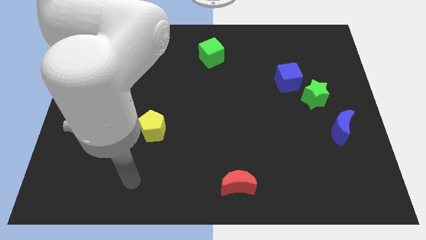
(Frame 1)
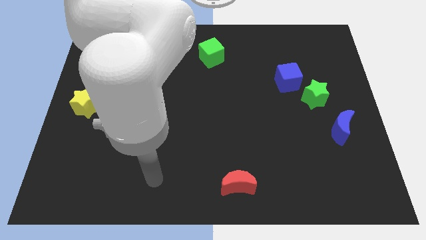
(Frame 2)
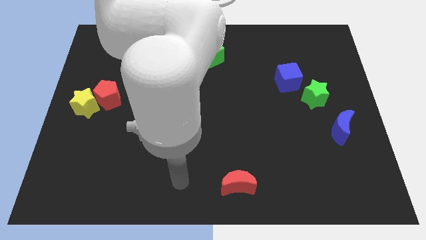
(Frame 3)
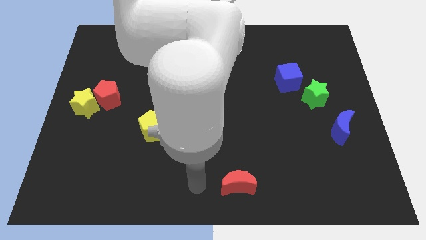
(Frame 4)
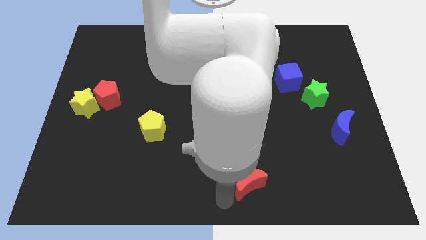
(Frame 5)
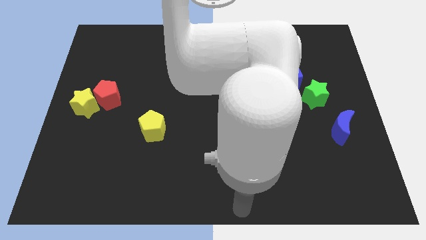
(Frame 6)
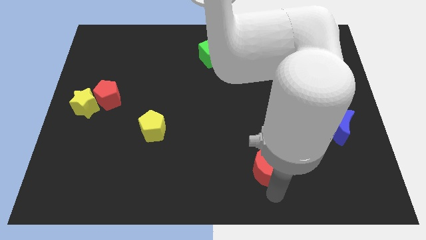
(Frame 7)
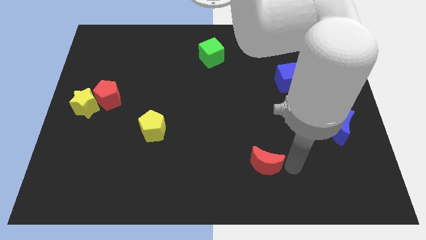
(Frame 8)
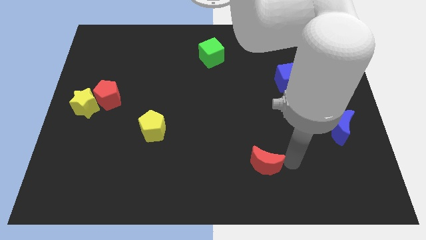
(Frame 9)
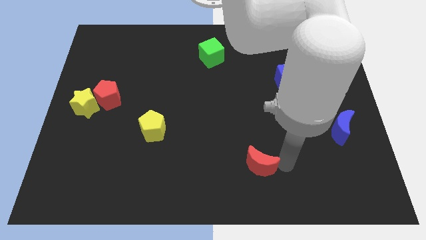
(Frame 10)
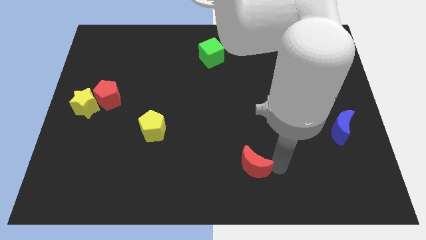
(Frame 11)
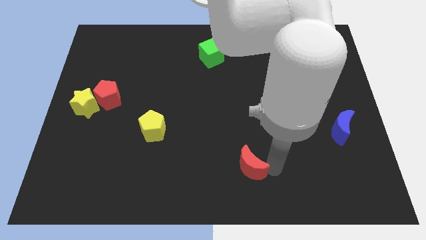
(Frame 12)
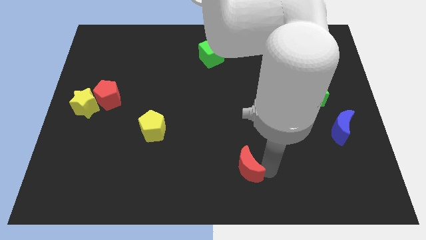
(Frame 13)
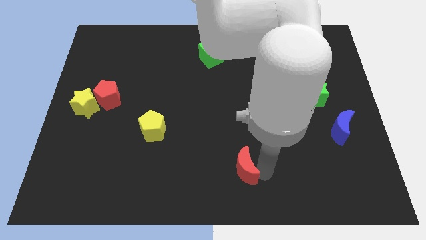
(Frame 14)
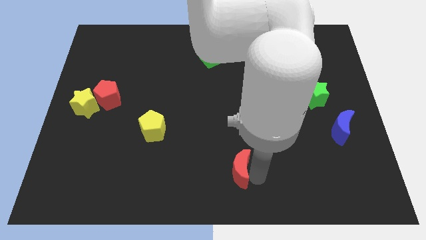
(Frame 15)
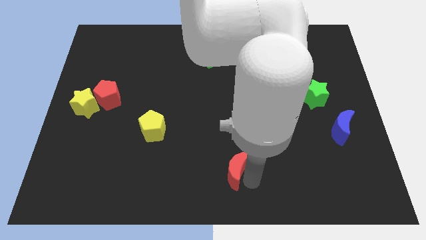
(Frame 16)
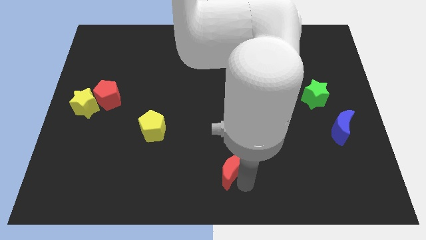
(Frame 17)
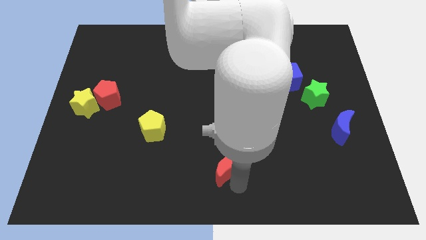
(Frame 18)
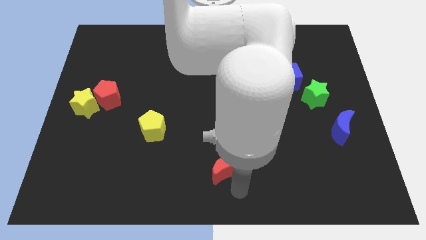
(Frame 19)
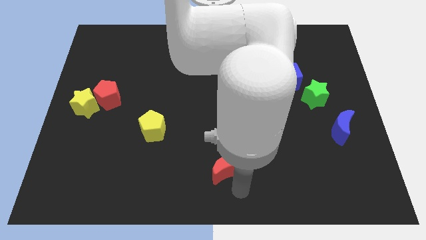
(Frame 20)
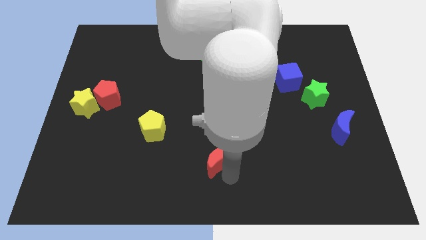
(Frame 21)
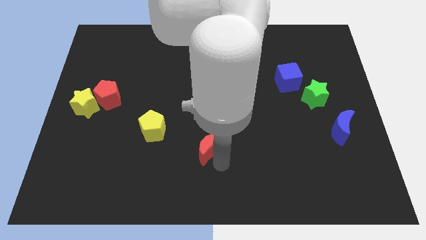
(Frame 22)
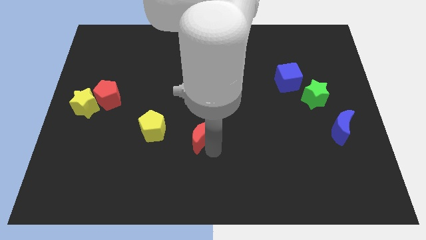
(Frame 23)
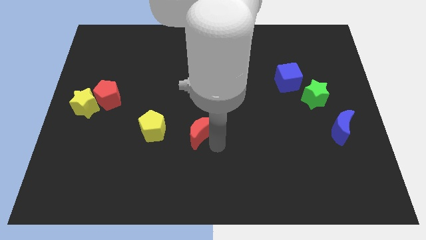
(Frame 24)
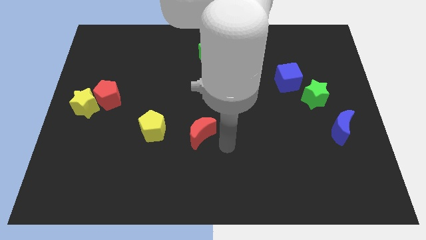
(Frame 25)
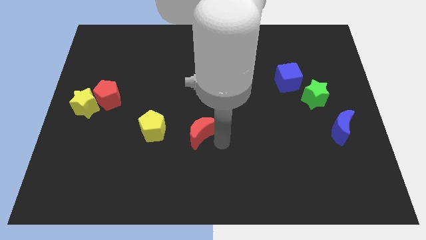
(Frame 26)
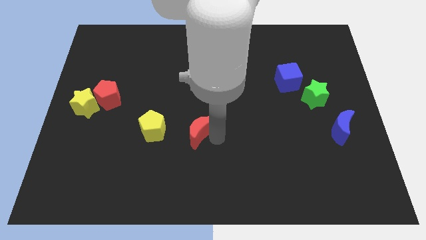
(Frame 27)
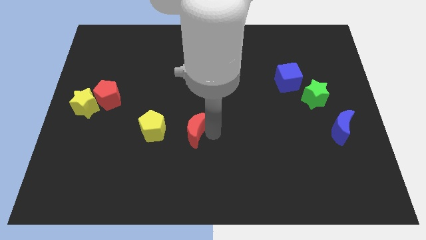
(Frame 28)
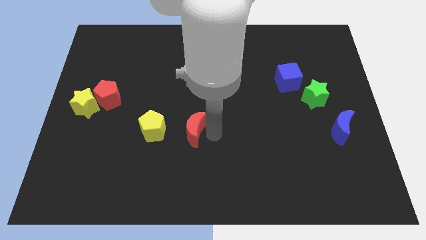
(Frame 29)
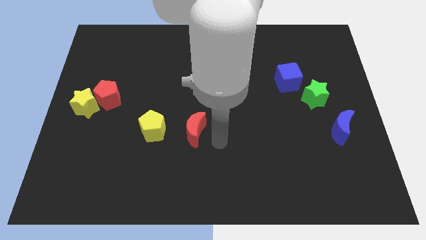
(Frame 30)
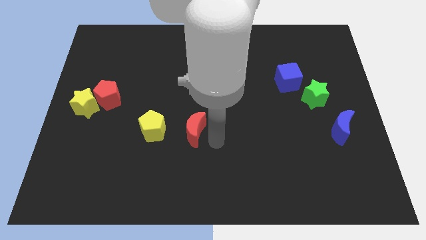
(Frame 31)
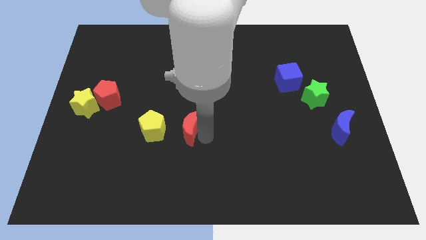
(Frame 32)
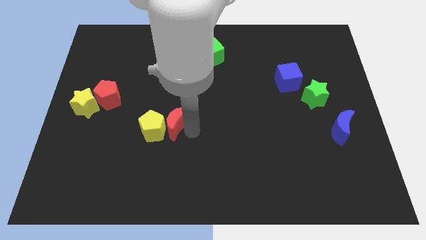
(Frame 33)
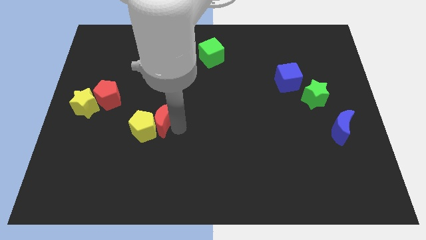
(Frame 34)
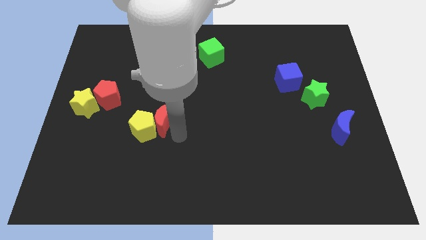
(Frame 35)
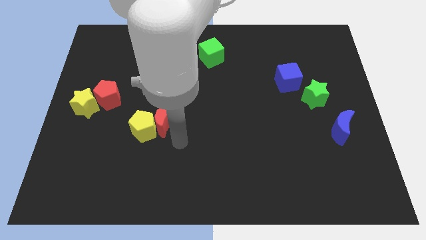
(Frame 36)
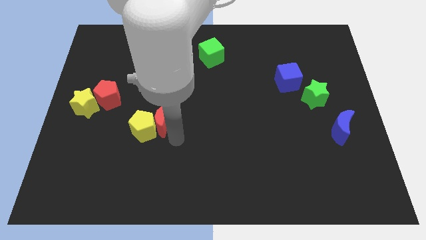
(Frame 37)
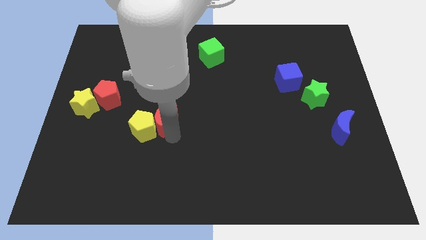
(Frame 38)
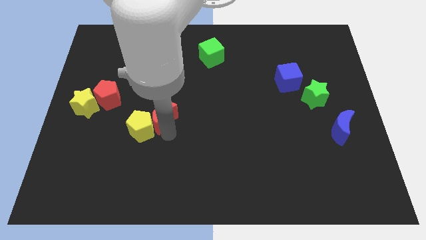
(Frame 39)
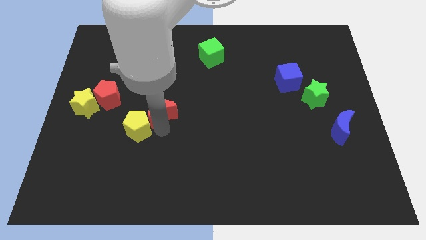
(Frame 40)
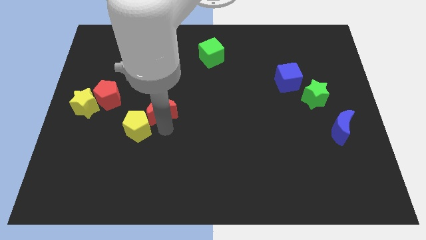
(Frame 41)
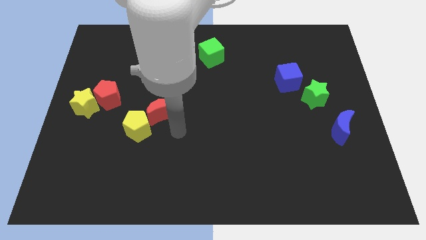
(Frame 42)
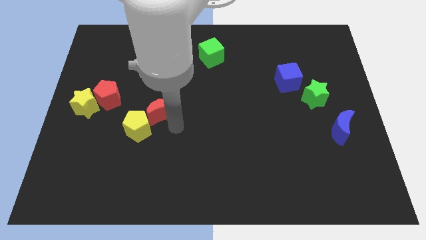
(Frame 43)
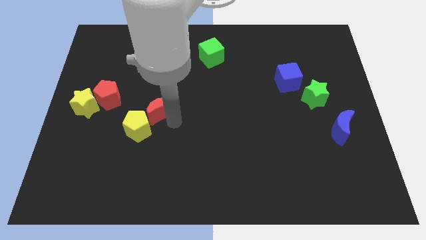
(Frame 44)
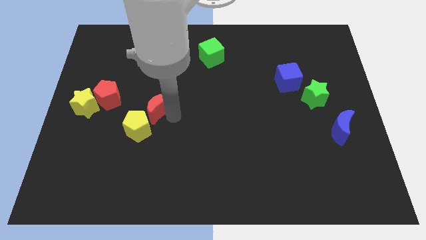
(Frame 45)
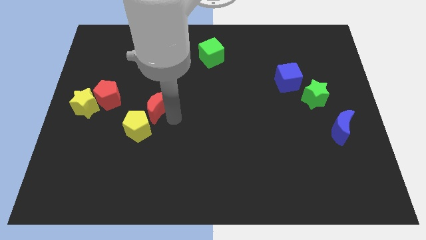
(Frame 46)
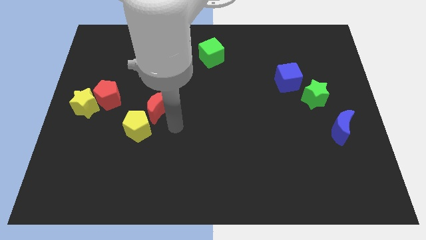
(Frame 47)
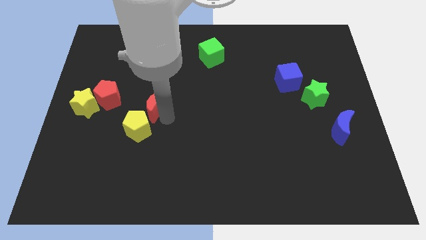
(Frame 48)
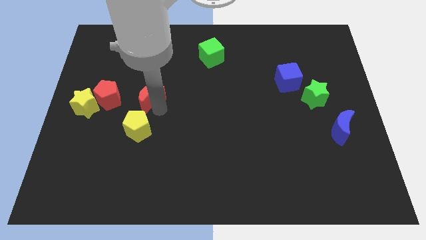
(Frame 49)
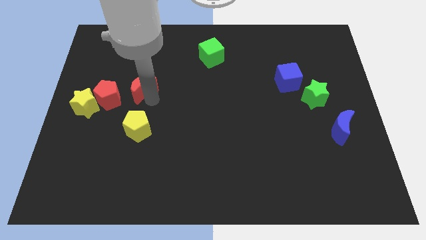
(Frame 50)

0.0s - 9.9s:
push the red moon to the top right side of the red pentagon

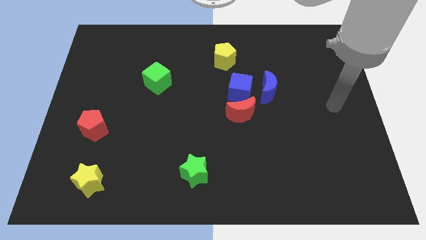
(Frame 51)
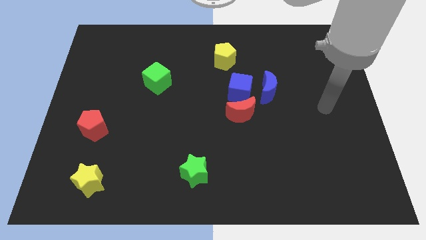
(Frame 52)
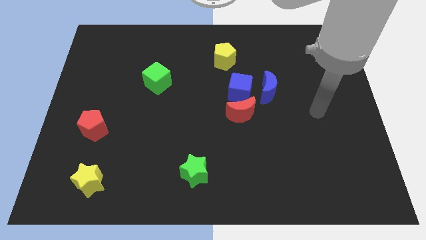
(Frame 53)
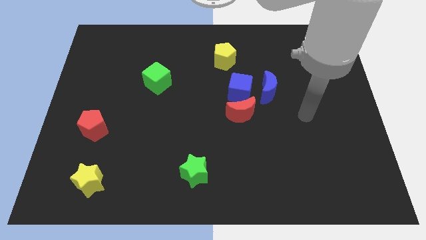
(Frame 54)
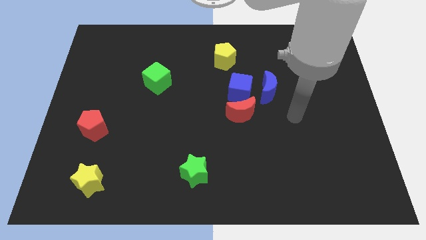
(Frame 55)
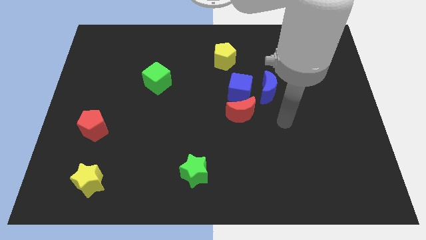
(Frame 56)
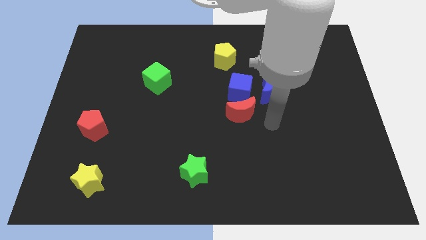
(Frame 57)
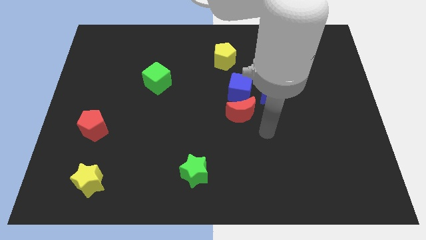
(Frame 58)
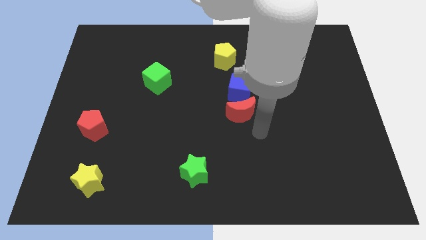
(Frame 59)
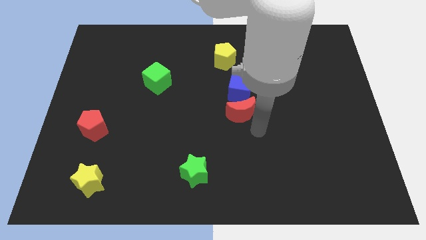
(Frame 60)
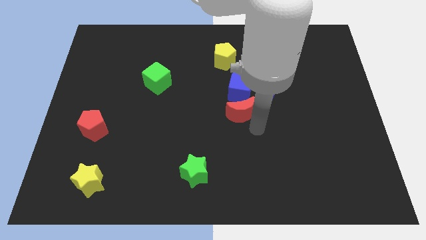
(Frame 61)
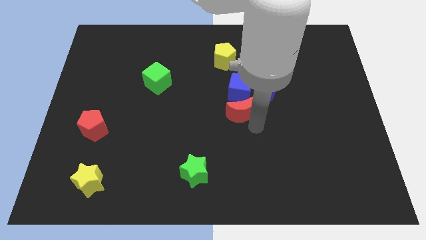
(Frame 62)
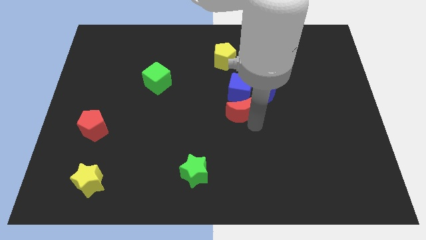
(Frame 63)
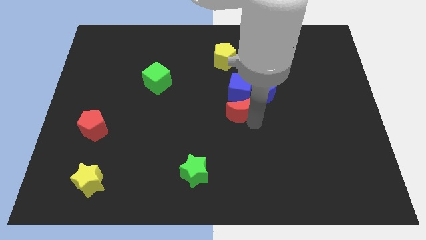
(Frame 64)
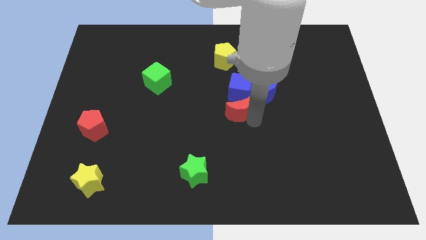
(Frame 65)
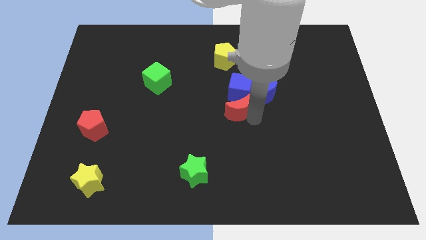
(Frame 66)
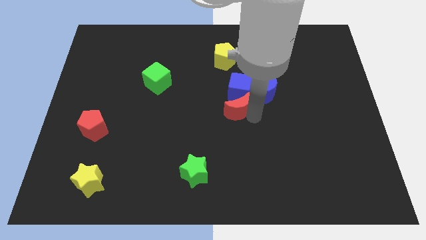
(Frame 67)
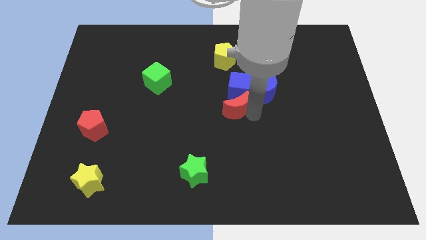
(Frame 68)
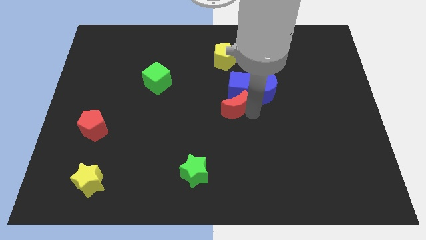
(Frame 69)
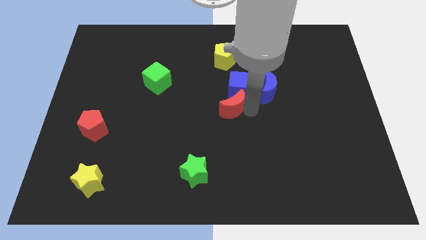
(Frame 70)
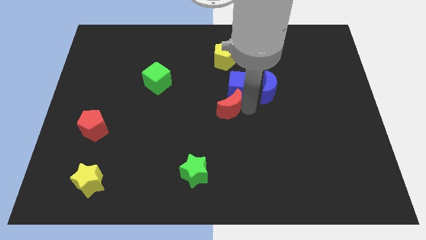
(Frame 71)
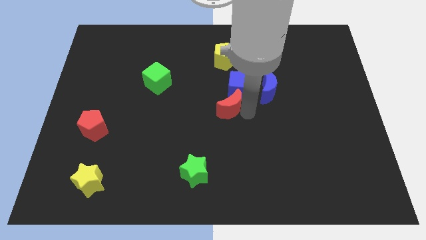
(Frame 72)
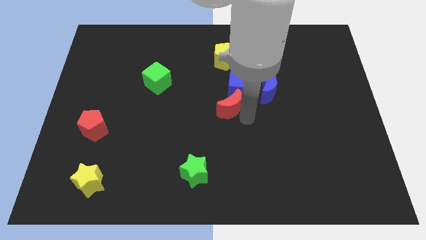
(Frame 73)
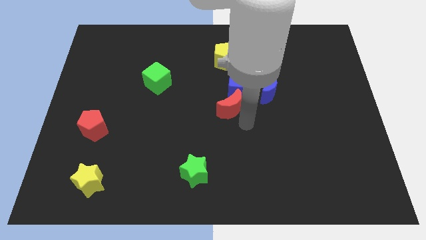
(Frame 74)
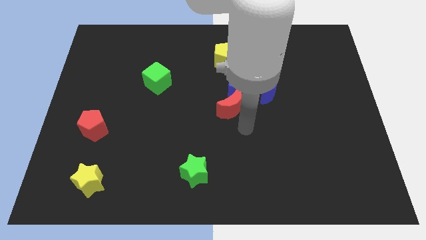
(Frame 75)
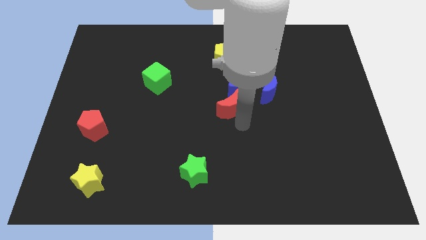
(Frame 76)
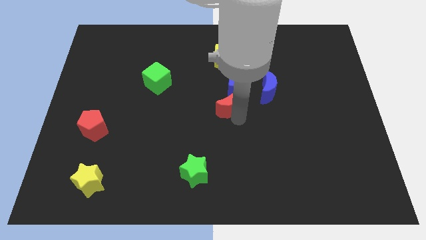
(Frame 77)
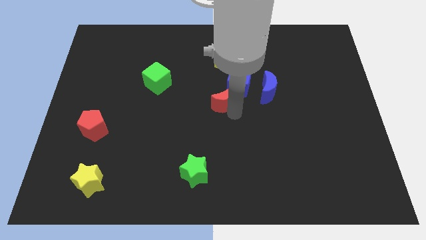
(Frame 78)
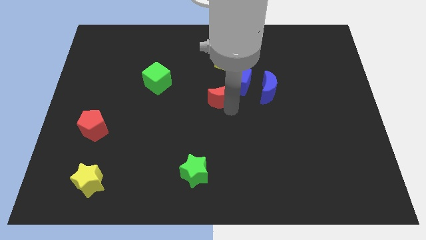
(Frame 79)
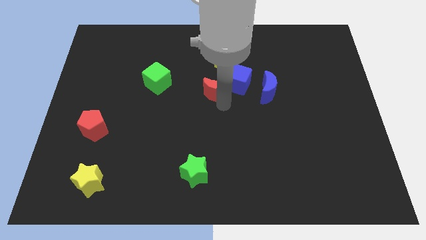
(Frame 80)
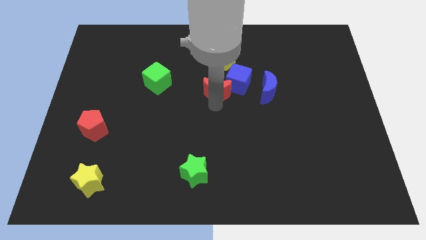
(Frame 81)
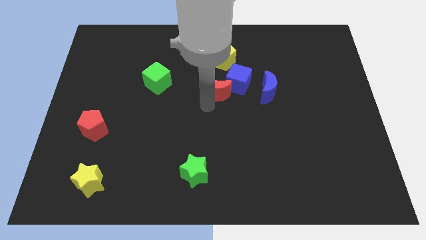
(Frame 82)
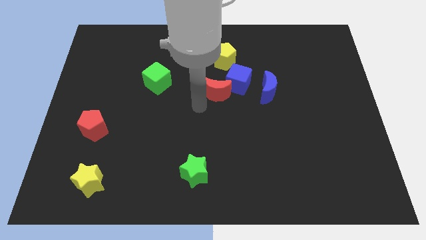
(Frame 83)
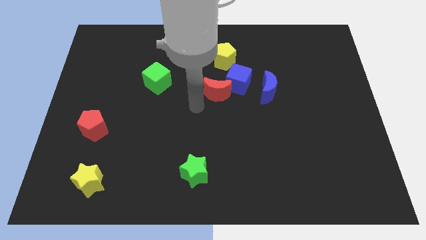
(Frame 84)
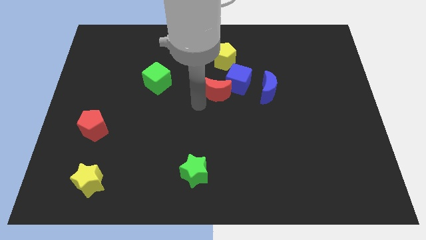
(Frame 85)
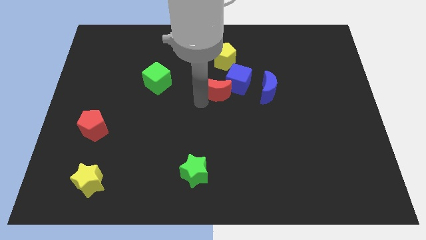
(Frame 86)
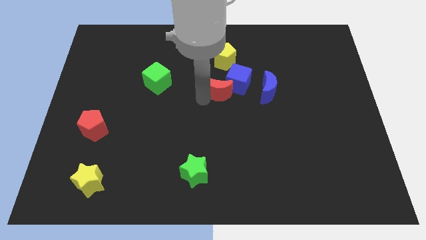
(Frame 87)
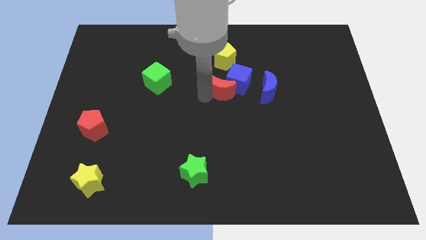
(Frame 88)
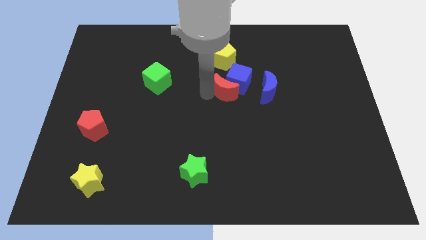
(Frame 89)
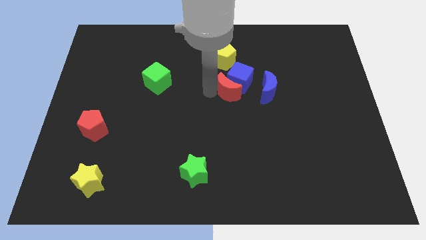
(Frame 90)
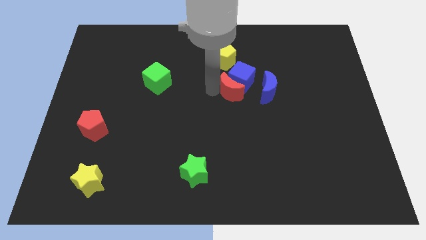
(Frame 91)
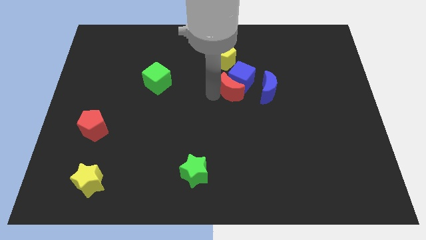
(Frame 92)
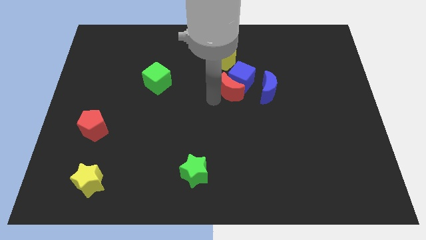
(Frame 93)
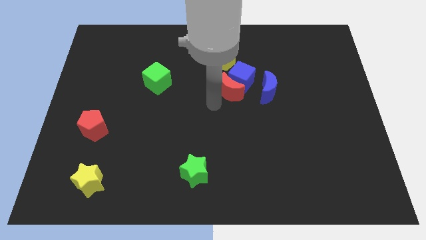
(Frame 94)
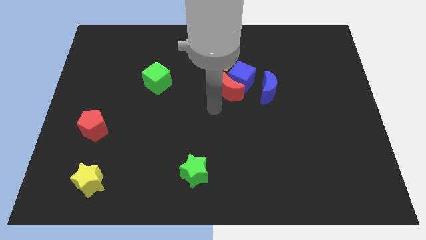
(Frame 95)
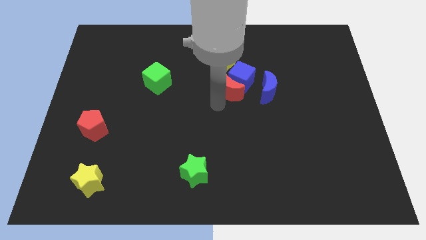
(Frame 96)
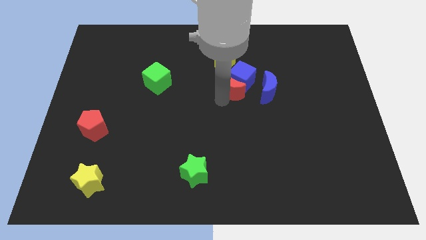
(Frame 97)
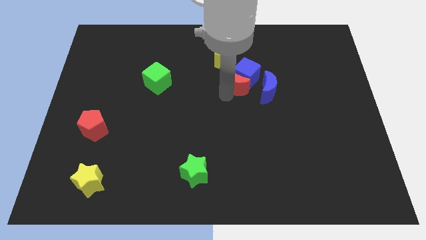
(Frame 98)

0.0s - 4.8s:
move the red moon to the bottom right side of the yellow pentagon
